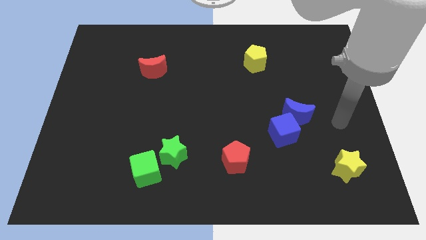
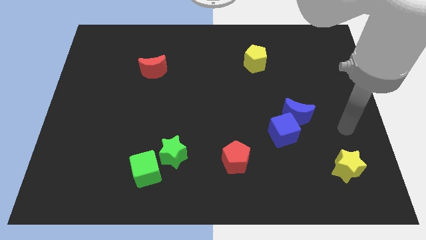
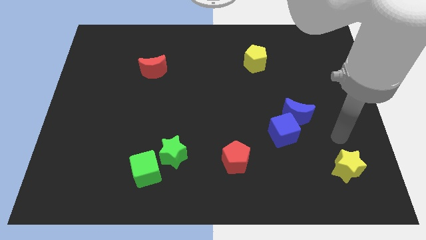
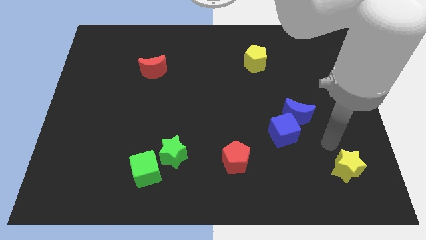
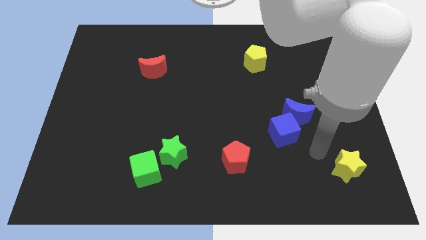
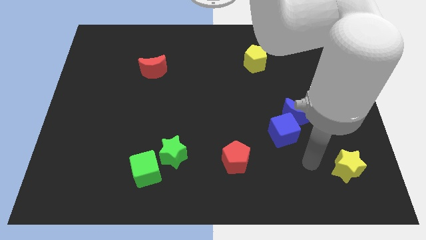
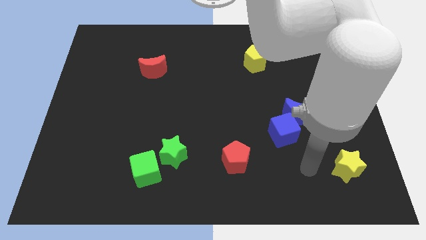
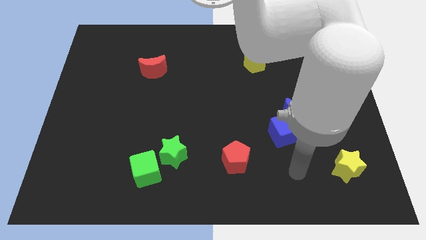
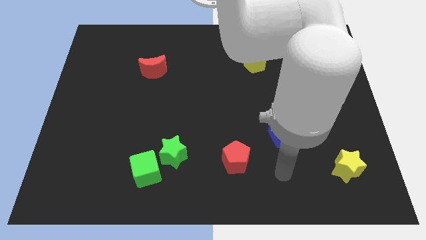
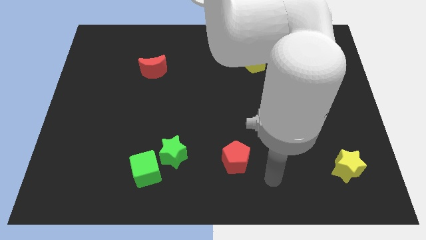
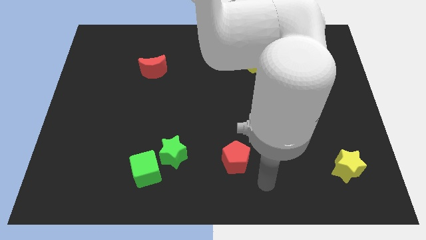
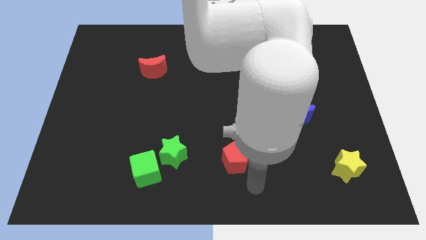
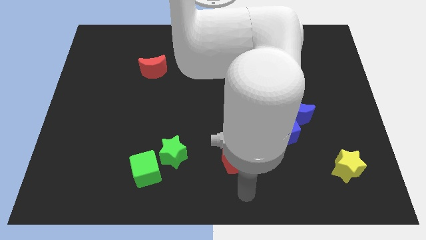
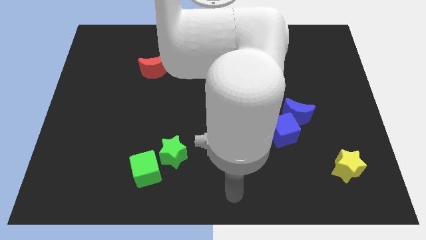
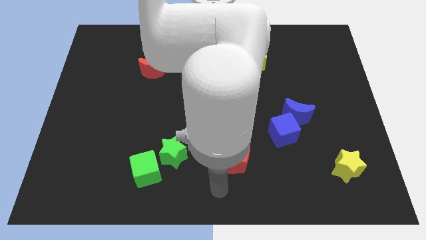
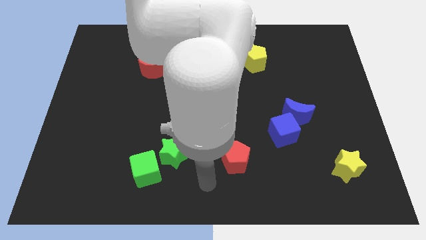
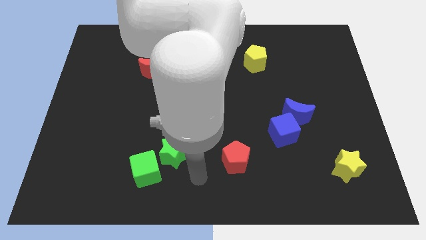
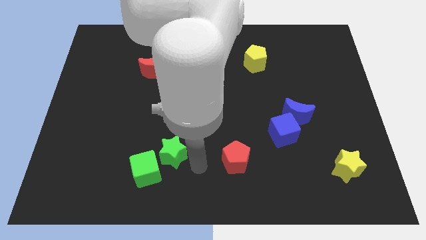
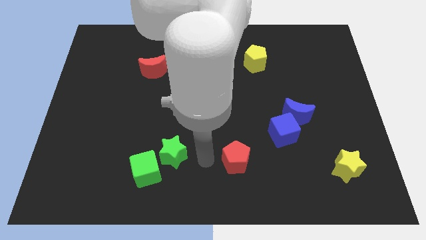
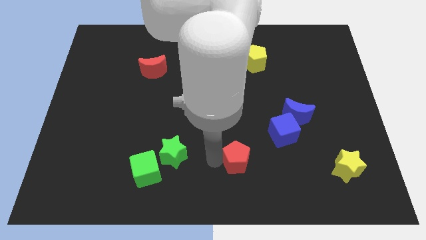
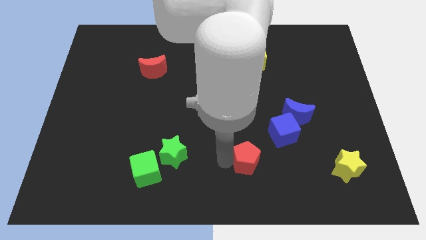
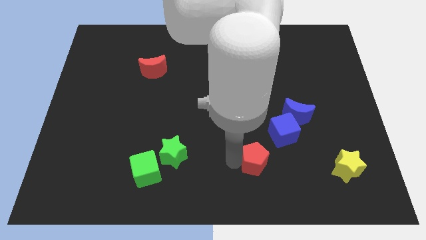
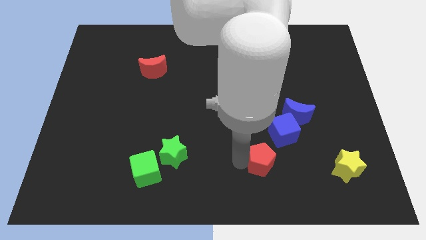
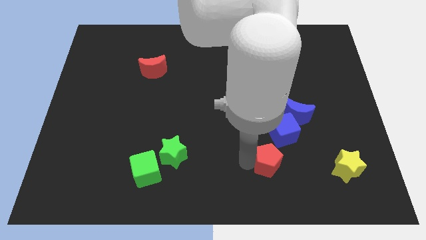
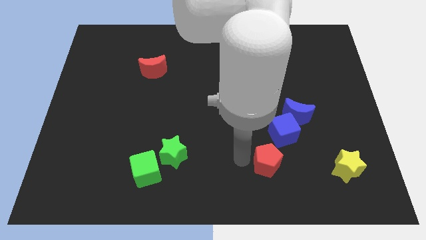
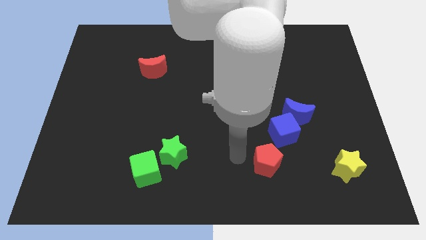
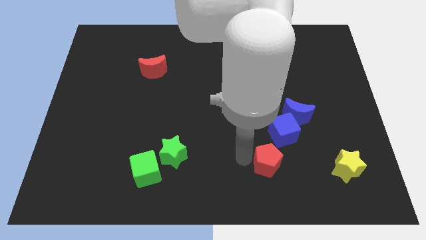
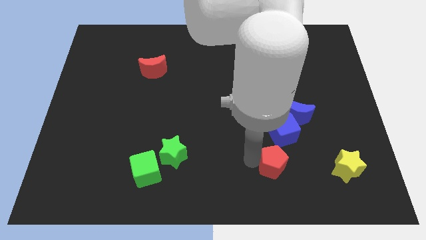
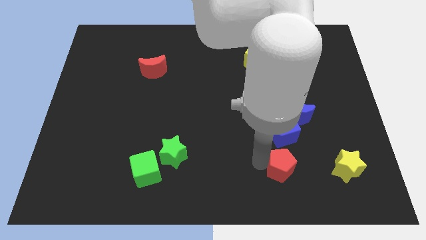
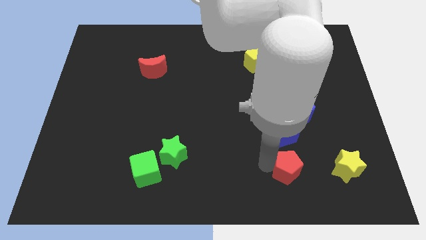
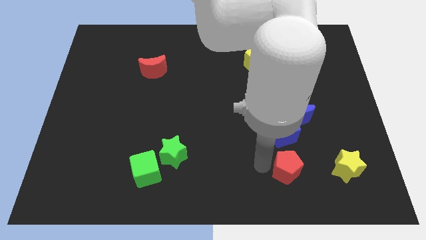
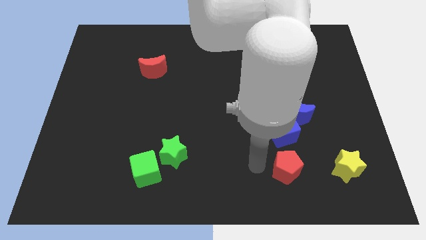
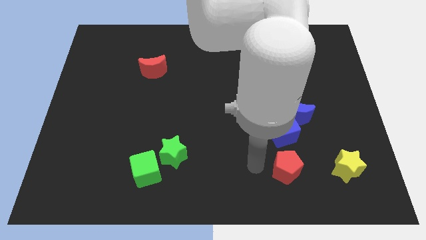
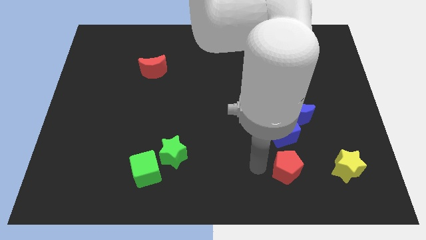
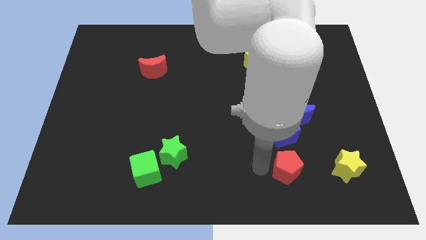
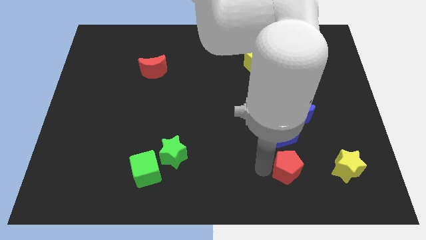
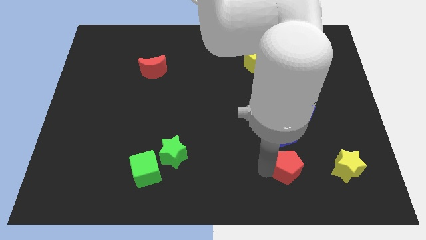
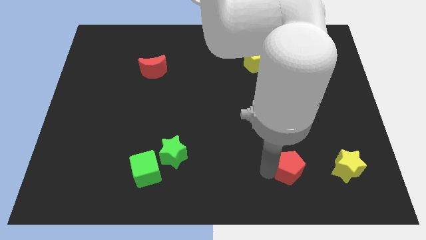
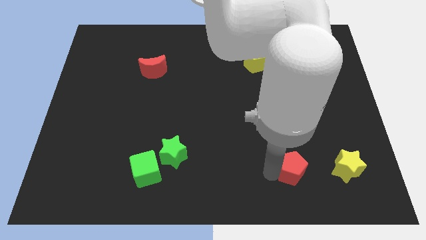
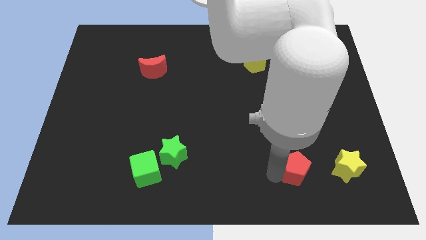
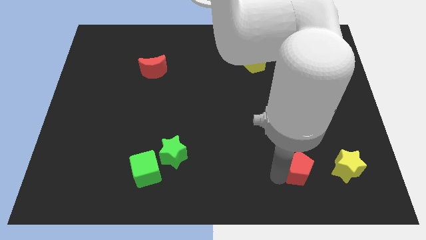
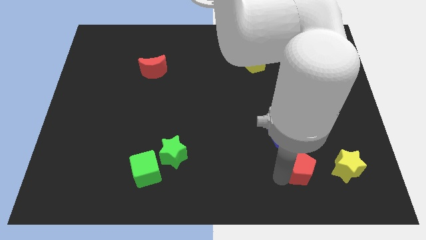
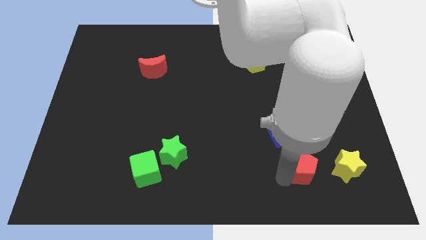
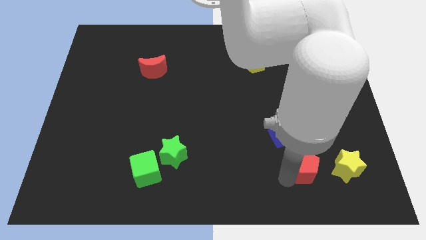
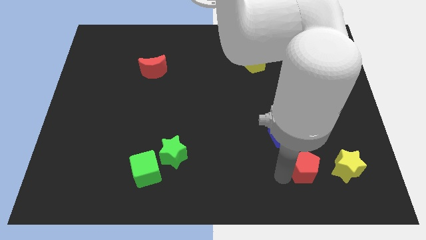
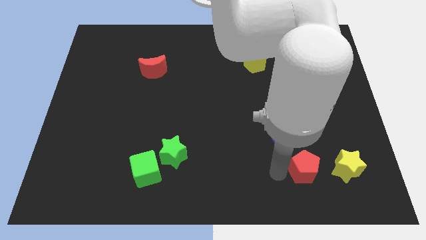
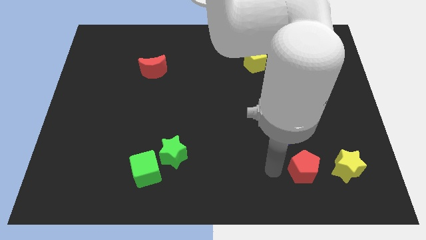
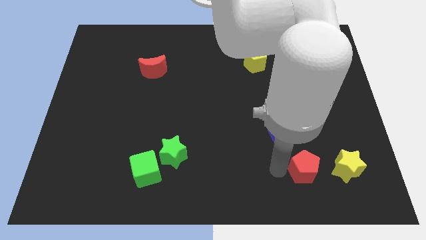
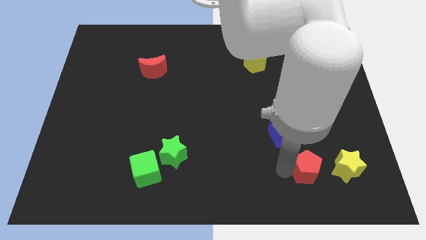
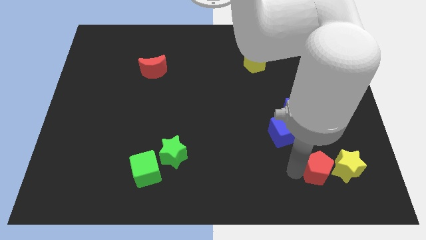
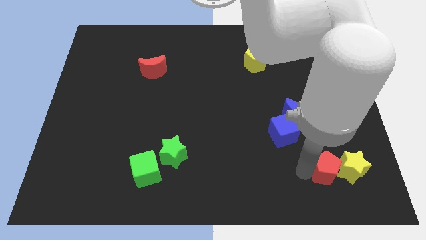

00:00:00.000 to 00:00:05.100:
push the red pentagon next to the yellow star

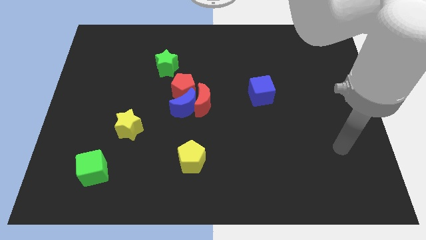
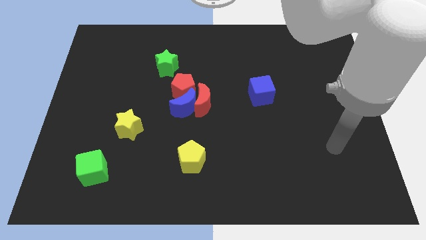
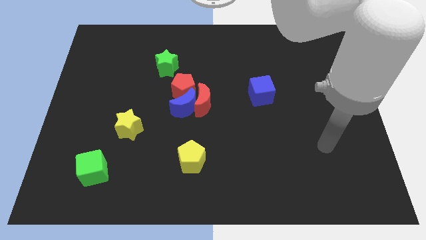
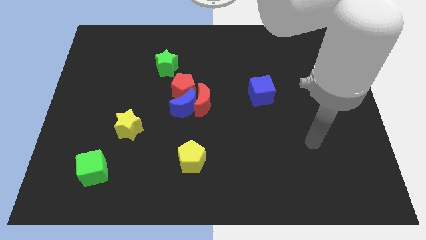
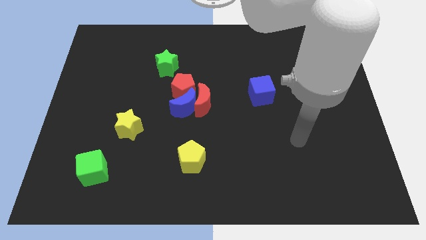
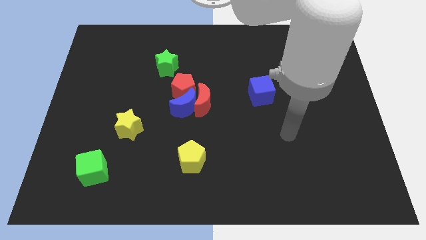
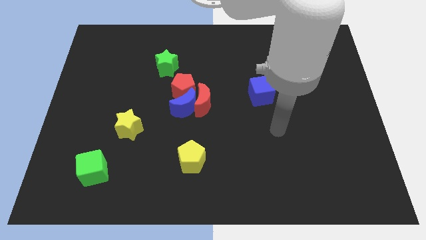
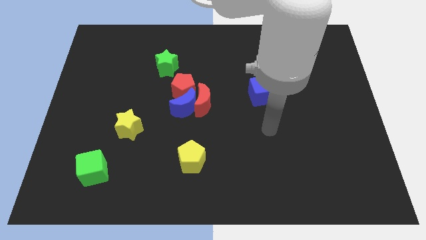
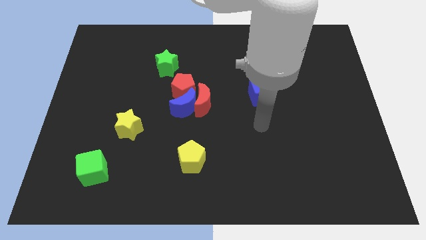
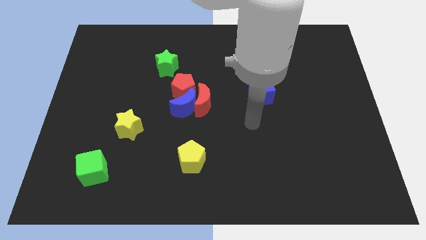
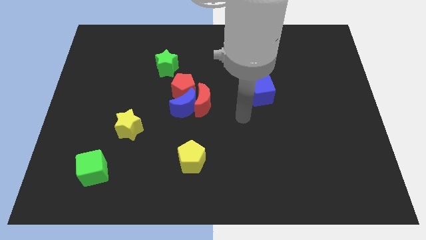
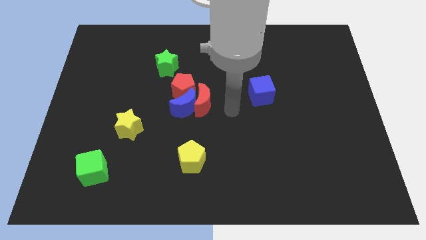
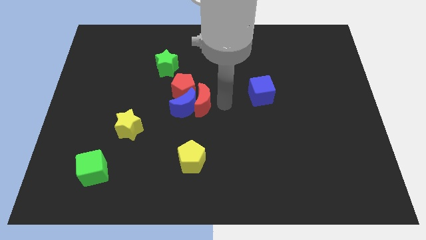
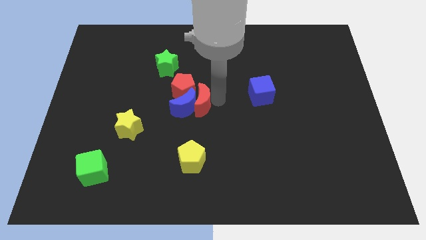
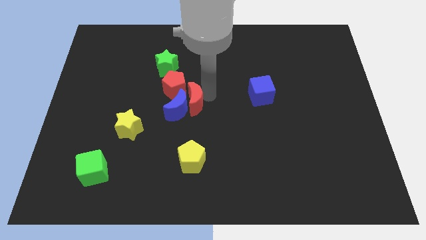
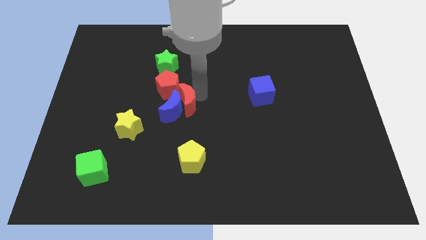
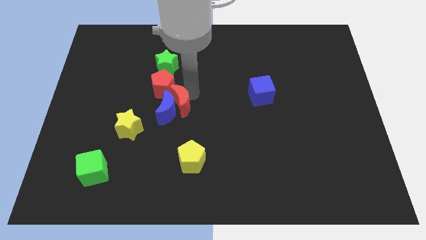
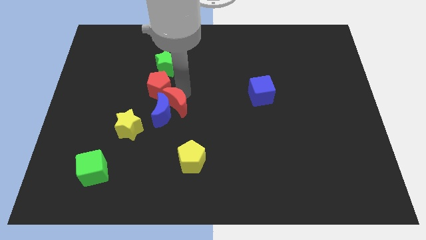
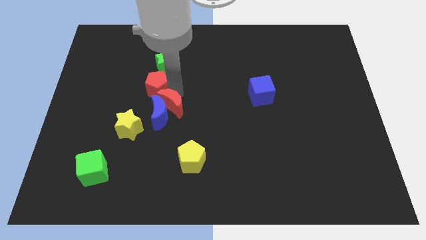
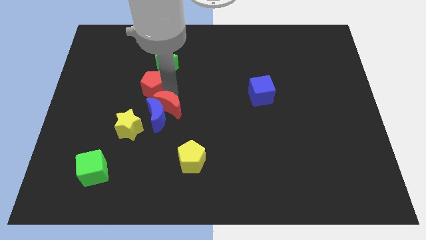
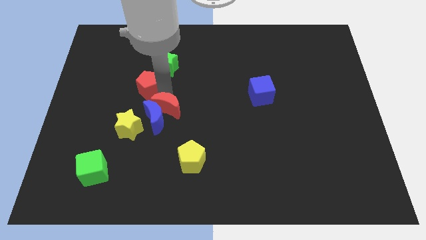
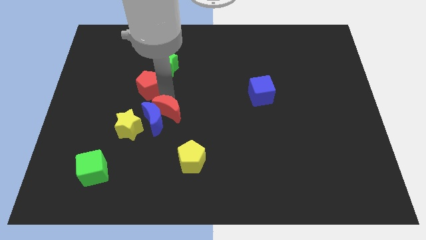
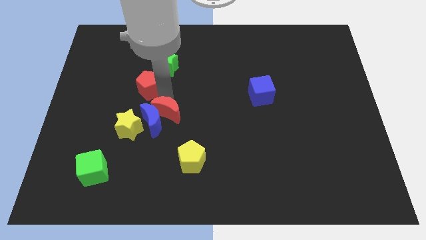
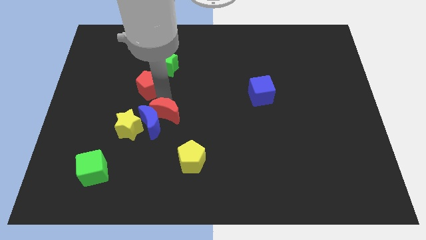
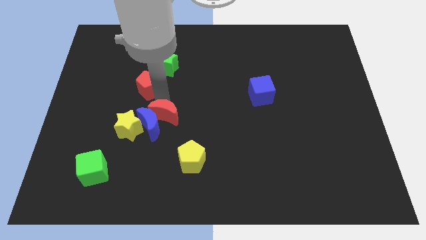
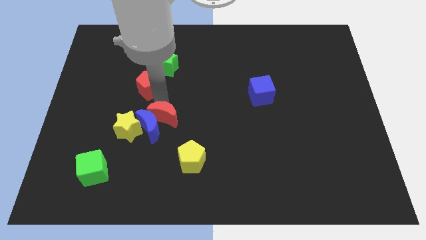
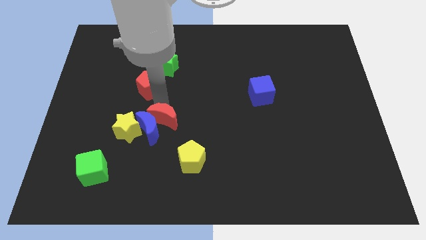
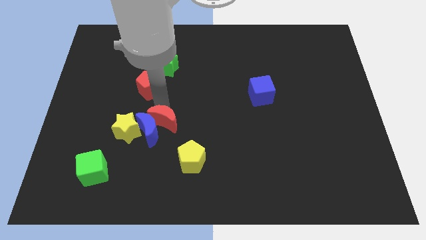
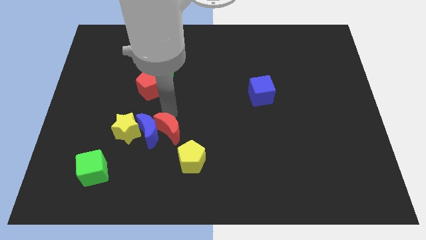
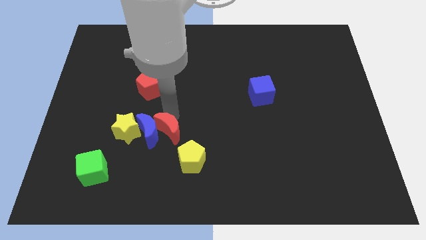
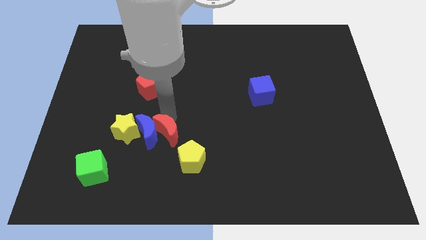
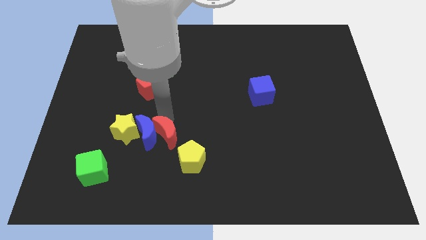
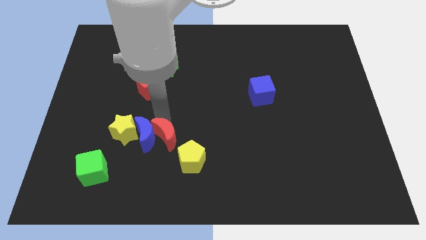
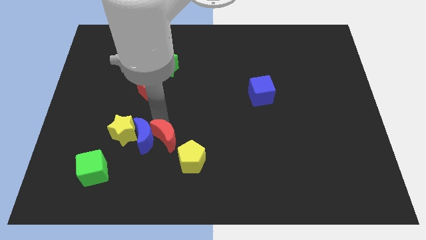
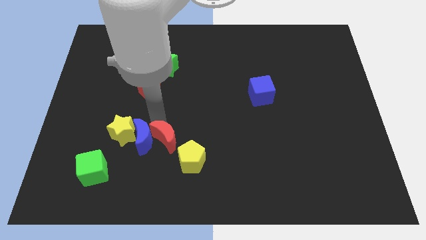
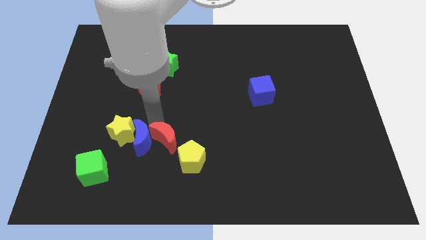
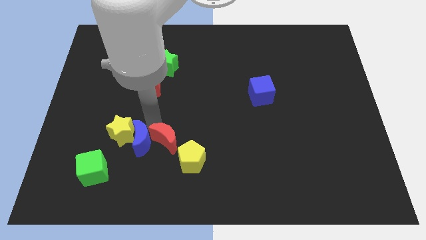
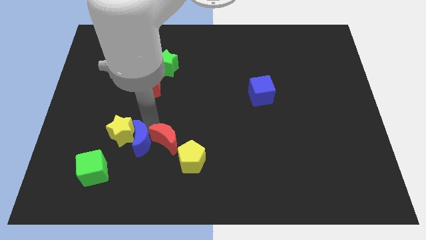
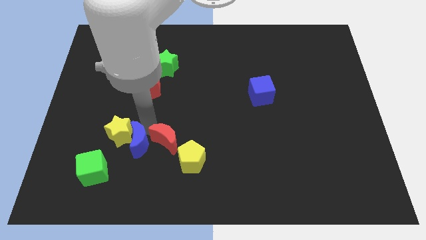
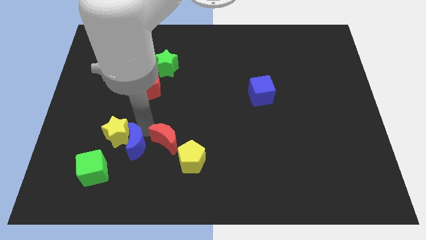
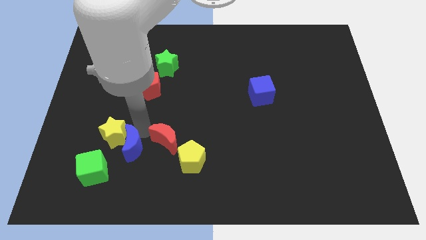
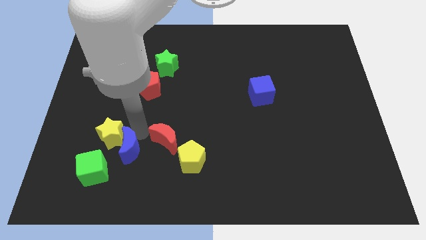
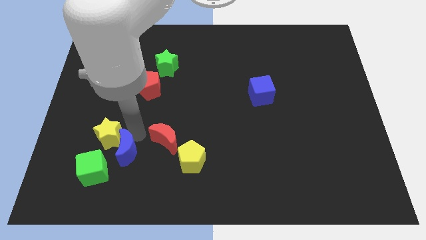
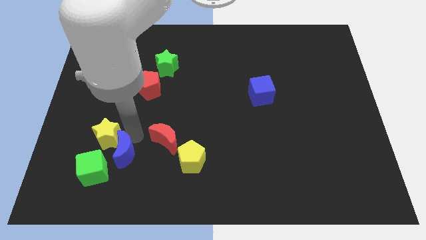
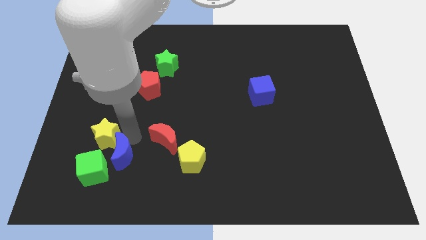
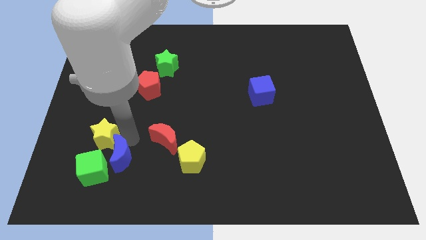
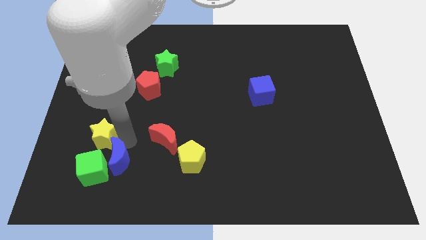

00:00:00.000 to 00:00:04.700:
slide the blue moon to the green cube
